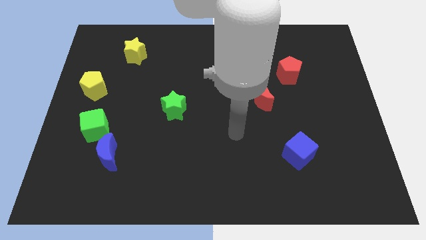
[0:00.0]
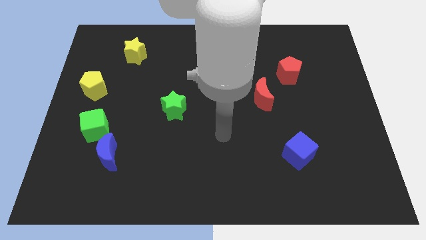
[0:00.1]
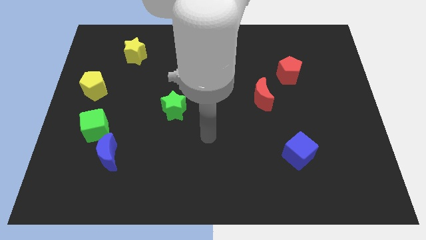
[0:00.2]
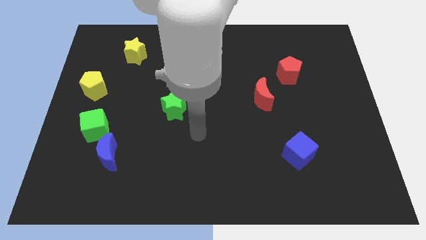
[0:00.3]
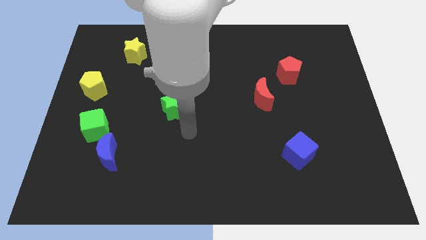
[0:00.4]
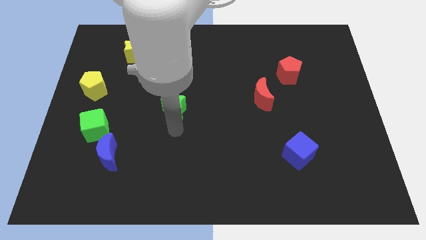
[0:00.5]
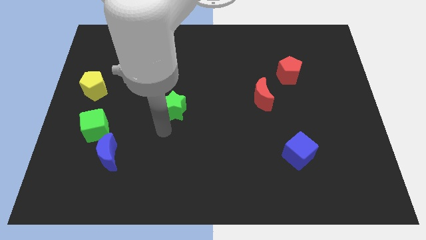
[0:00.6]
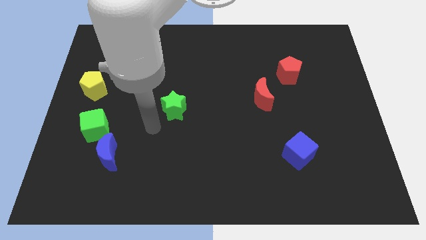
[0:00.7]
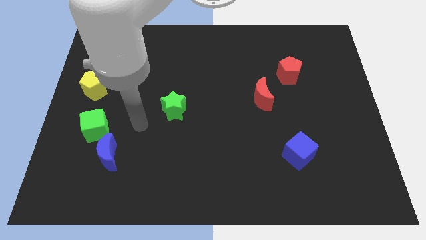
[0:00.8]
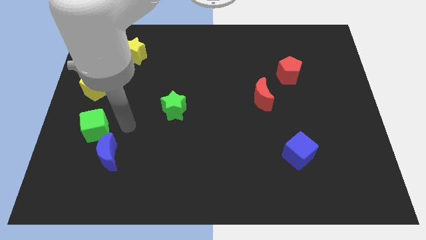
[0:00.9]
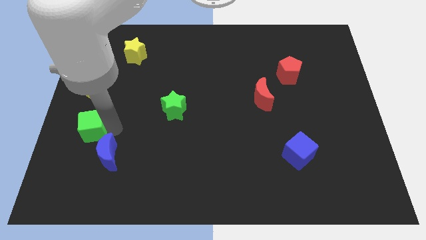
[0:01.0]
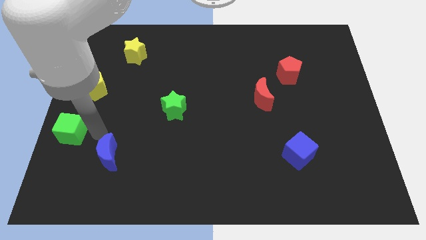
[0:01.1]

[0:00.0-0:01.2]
pull the blue moon apart from the green cube

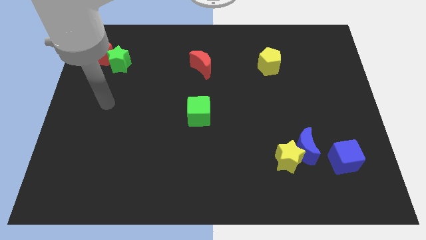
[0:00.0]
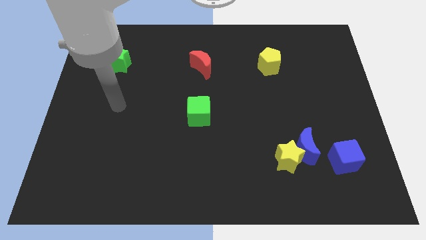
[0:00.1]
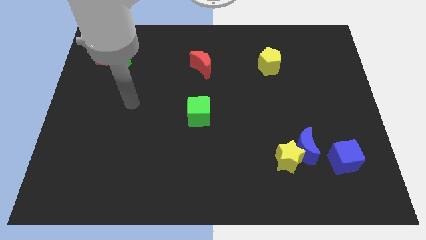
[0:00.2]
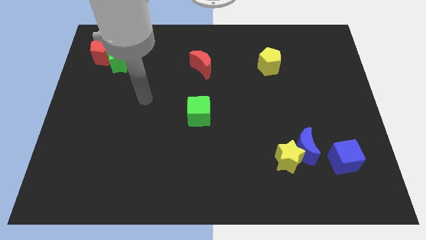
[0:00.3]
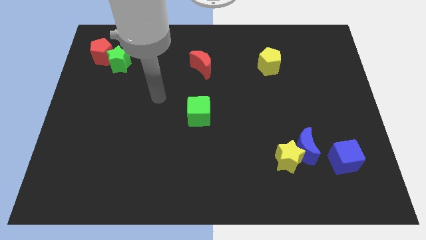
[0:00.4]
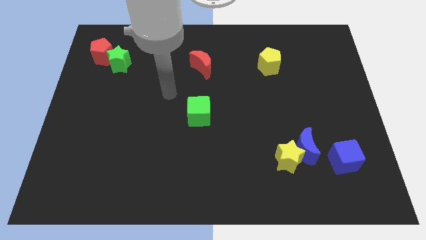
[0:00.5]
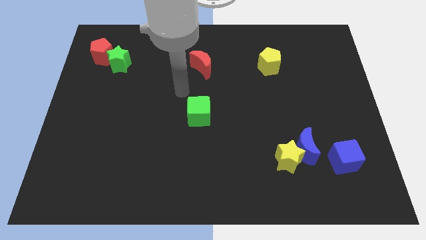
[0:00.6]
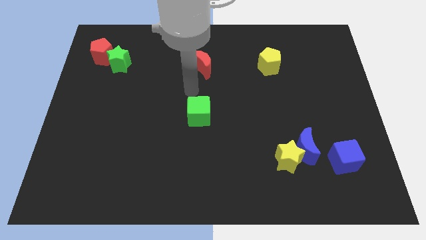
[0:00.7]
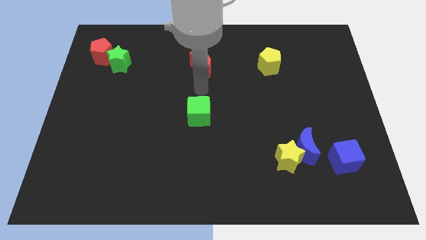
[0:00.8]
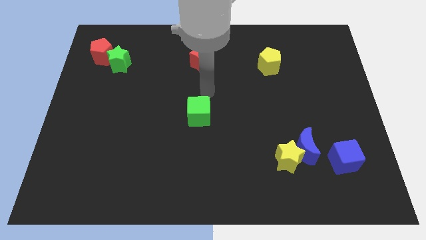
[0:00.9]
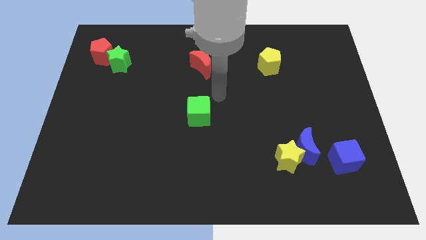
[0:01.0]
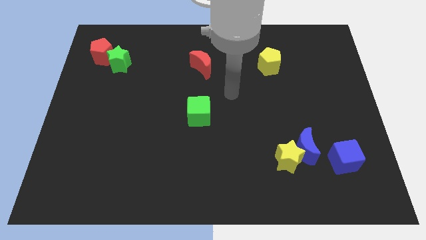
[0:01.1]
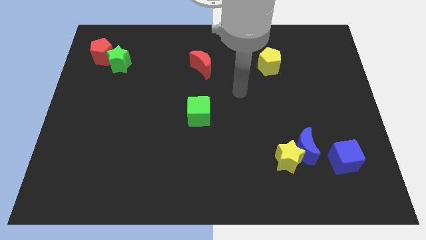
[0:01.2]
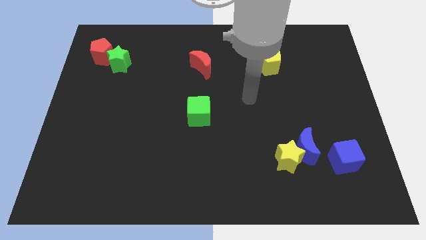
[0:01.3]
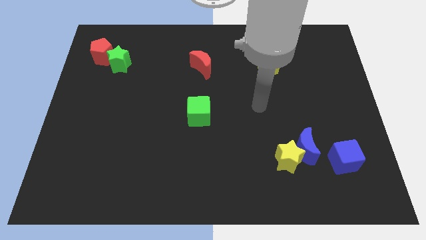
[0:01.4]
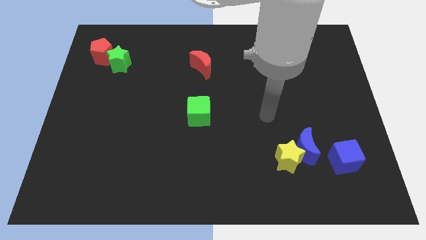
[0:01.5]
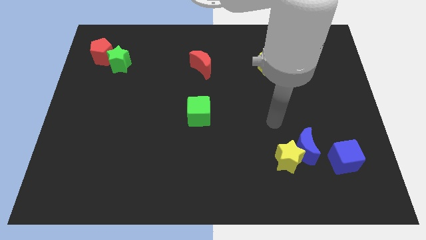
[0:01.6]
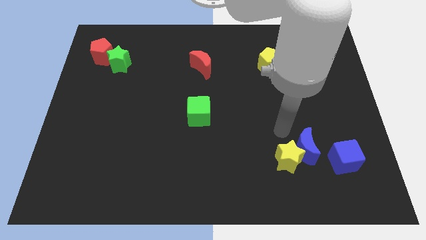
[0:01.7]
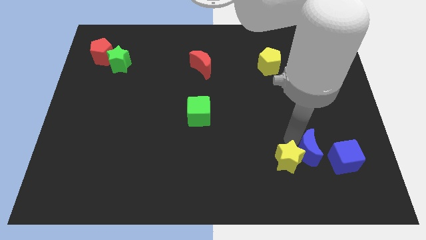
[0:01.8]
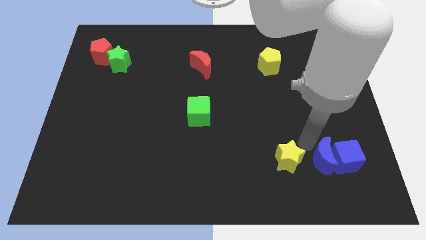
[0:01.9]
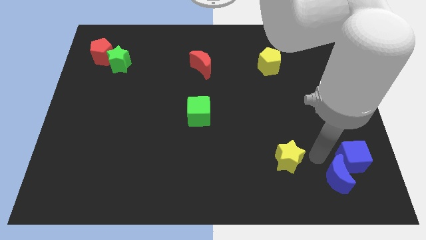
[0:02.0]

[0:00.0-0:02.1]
move the yellow star away from the blue moon

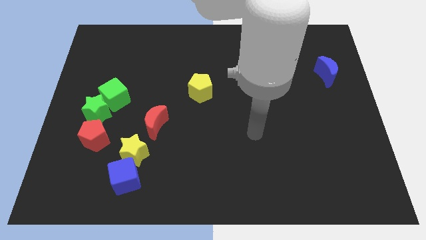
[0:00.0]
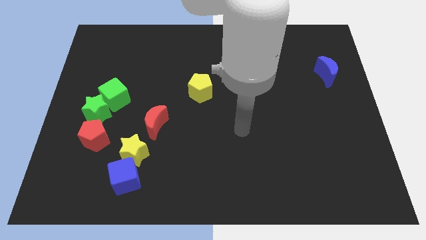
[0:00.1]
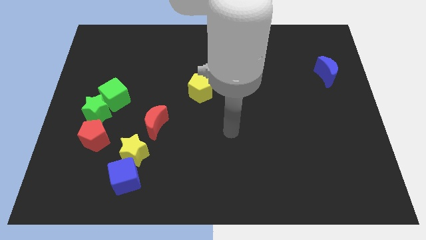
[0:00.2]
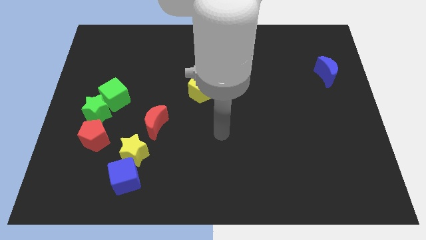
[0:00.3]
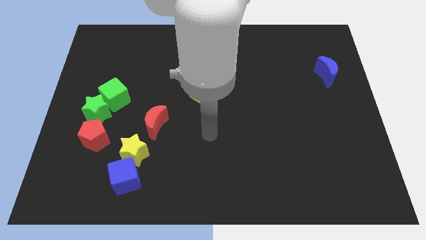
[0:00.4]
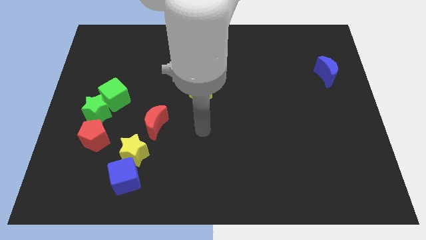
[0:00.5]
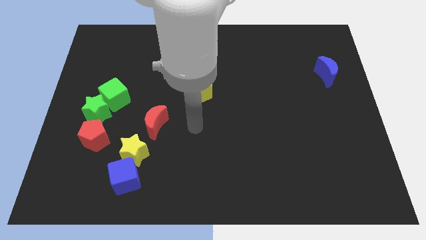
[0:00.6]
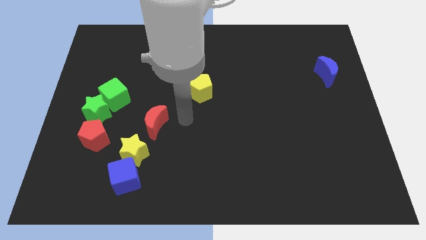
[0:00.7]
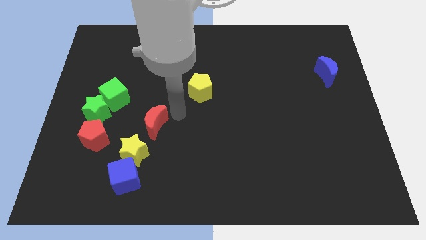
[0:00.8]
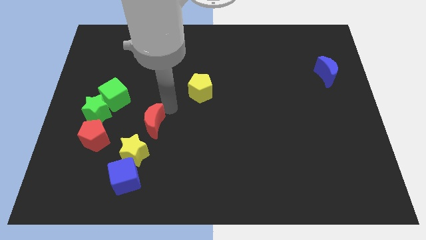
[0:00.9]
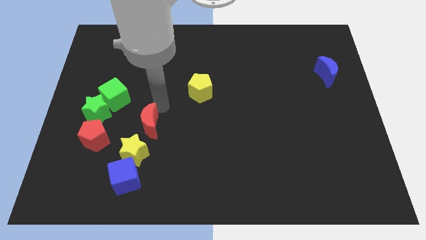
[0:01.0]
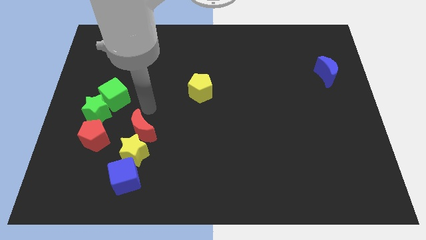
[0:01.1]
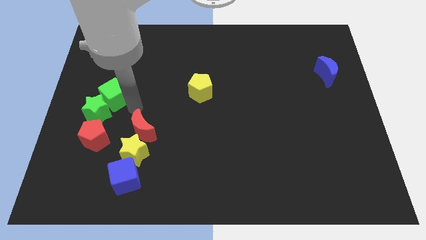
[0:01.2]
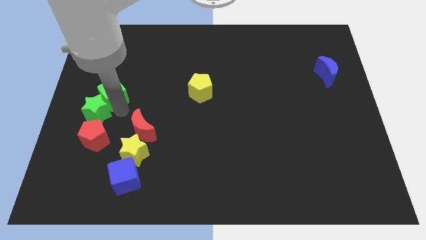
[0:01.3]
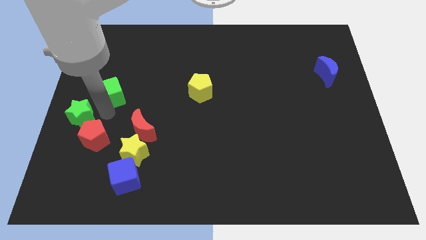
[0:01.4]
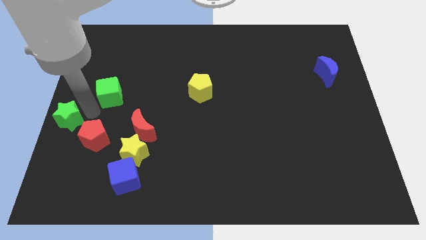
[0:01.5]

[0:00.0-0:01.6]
move the green cube away from the green star

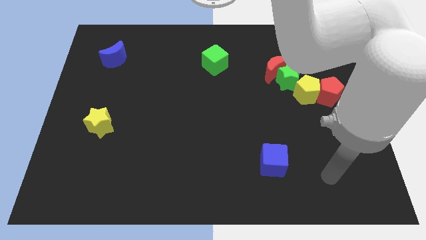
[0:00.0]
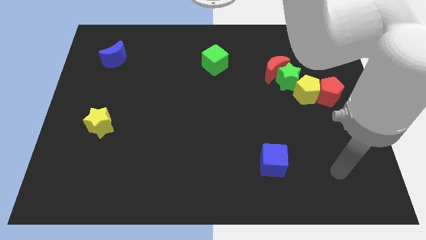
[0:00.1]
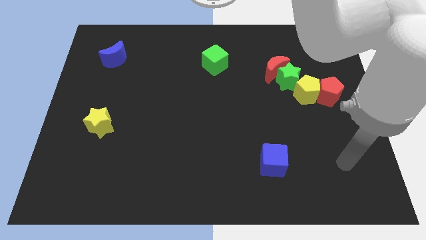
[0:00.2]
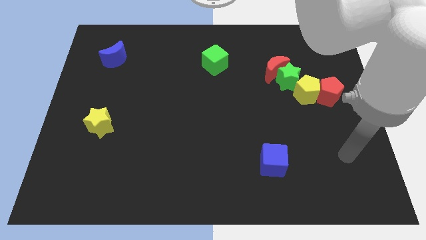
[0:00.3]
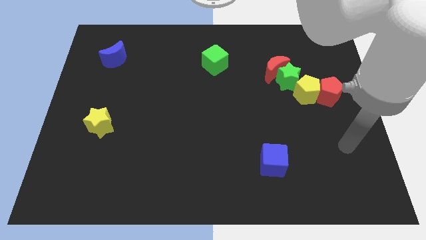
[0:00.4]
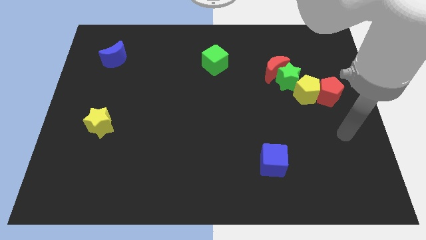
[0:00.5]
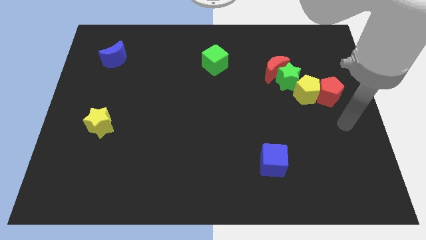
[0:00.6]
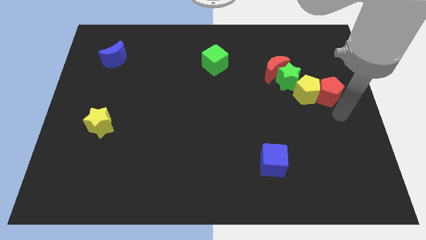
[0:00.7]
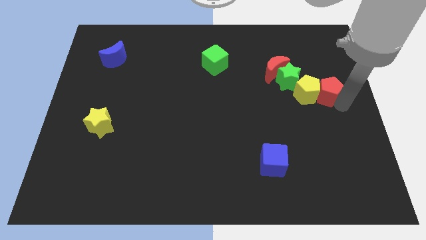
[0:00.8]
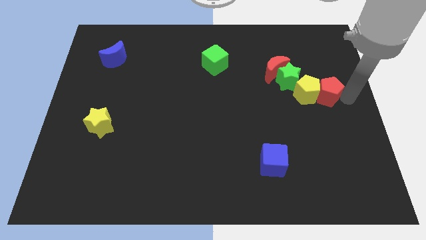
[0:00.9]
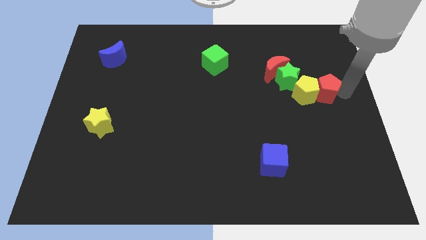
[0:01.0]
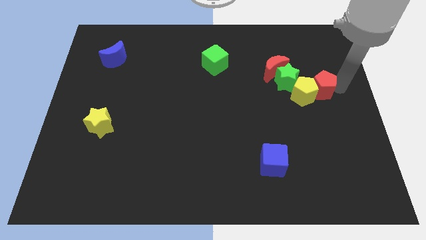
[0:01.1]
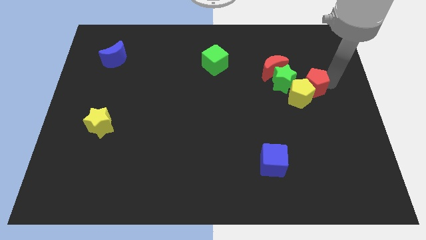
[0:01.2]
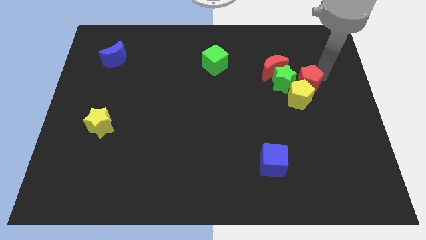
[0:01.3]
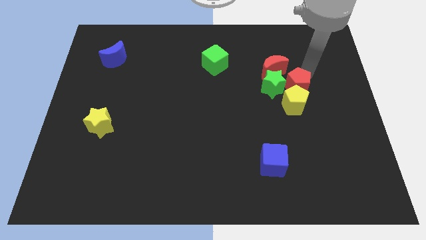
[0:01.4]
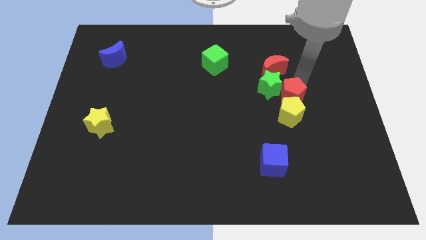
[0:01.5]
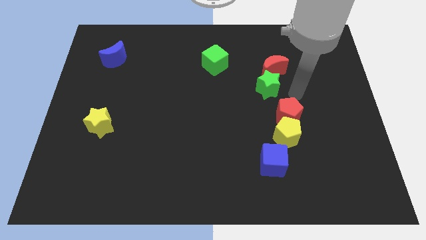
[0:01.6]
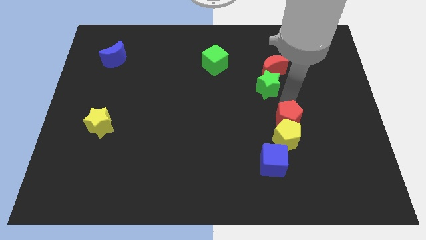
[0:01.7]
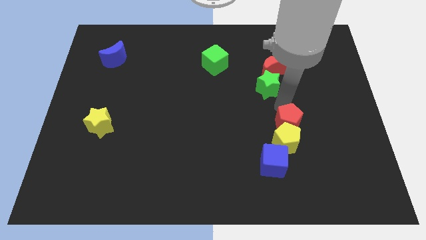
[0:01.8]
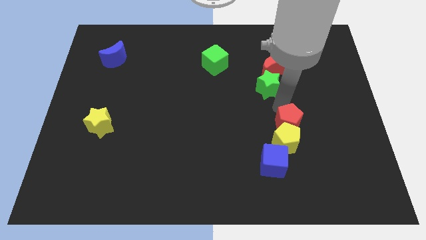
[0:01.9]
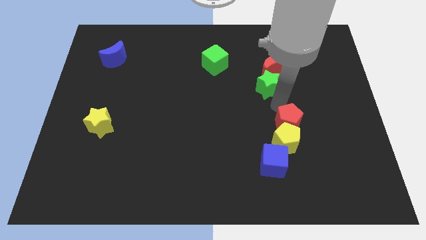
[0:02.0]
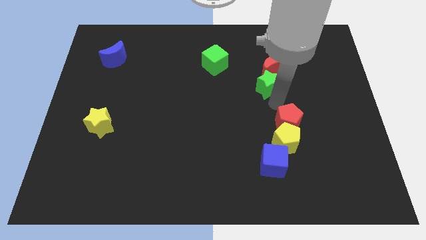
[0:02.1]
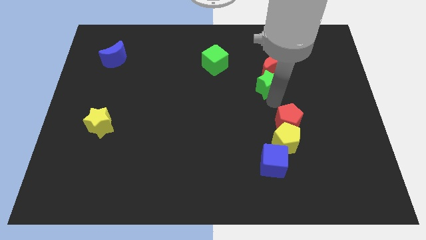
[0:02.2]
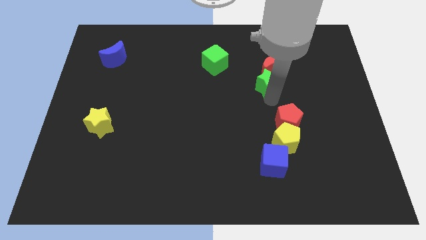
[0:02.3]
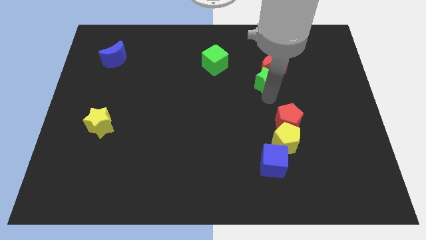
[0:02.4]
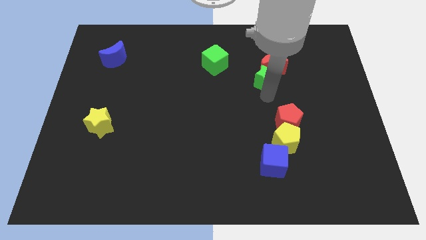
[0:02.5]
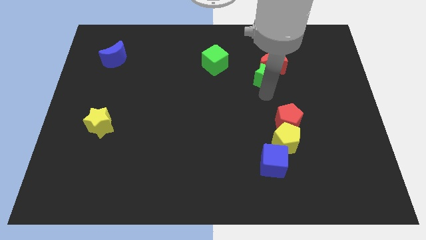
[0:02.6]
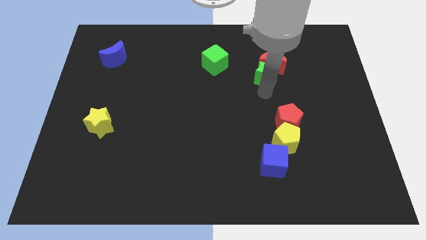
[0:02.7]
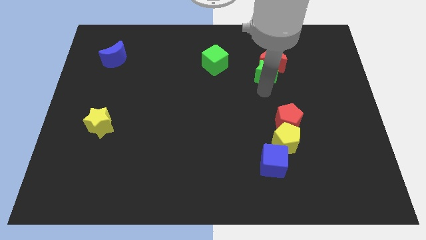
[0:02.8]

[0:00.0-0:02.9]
move the green star away from the clump

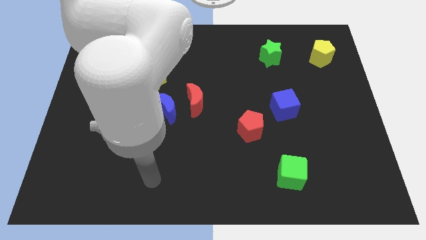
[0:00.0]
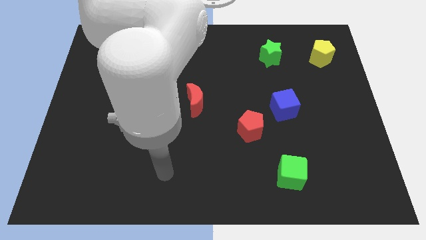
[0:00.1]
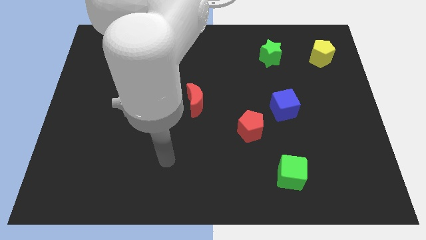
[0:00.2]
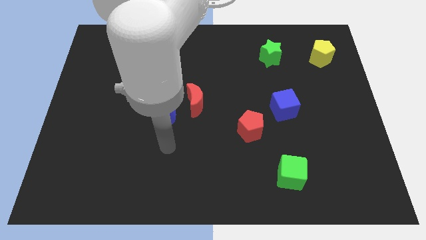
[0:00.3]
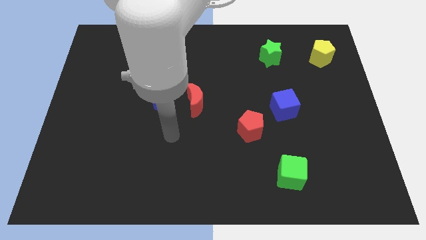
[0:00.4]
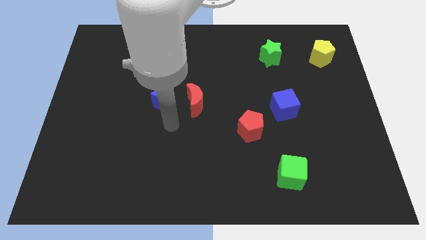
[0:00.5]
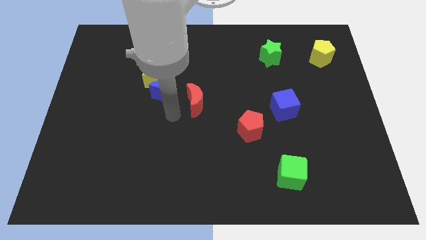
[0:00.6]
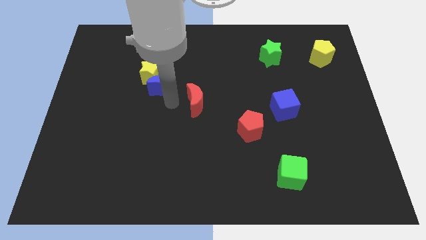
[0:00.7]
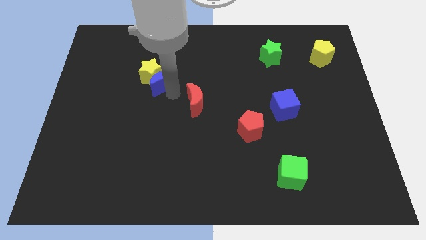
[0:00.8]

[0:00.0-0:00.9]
move the red moon away from the blue moon

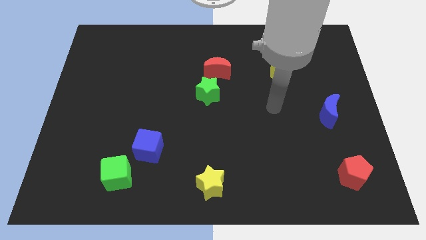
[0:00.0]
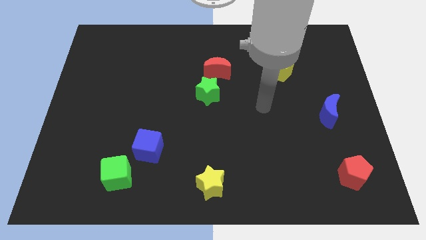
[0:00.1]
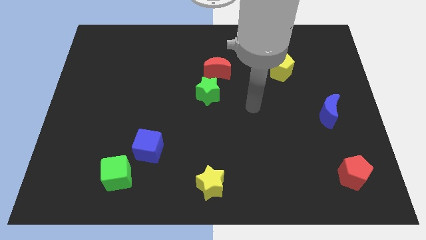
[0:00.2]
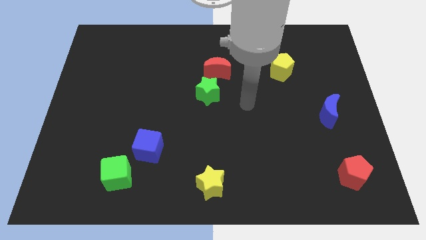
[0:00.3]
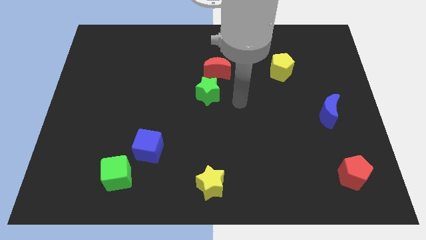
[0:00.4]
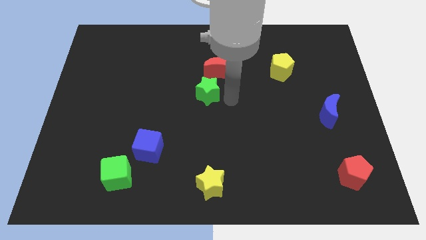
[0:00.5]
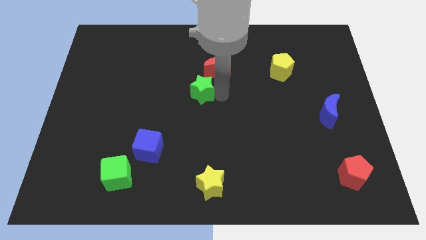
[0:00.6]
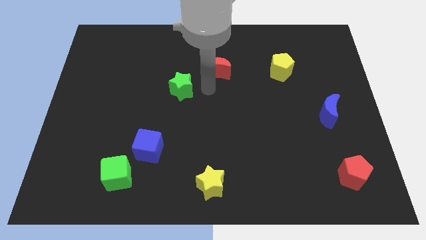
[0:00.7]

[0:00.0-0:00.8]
separate the red moon from the green star
